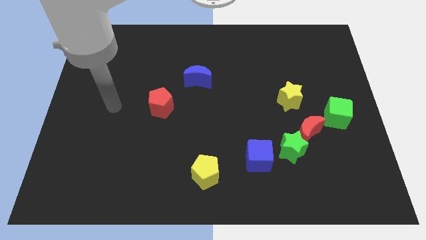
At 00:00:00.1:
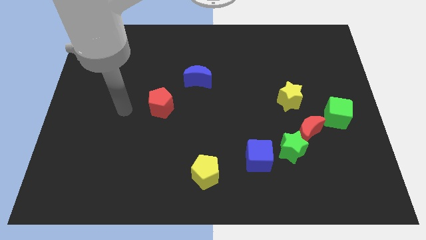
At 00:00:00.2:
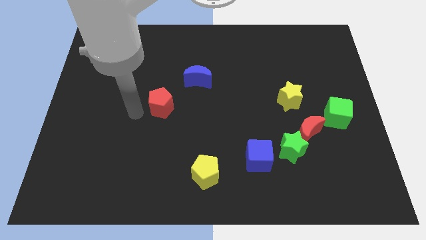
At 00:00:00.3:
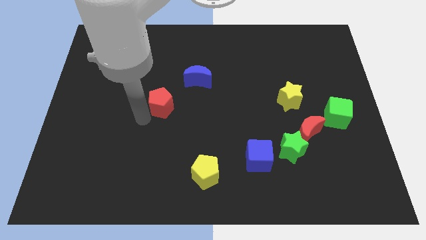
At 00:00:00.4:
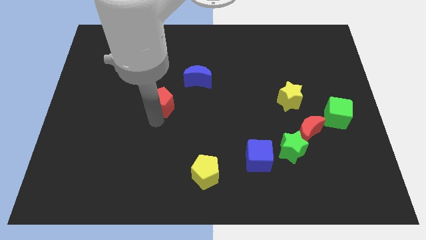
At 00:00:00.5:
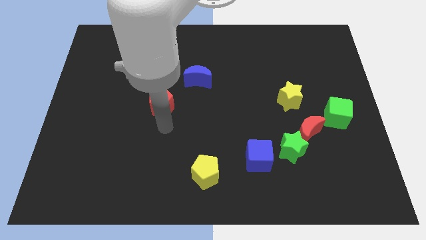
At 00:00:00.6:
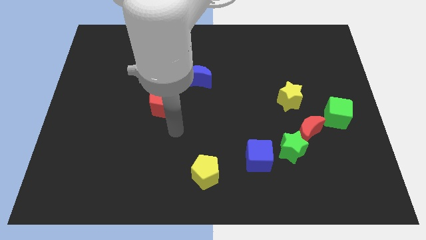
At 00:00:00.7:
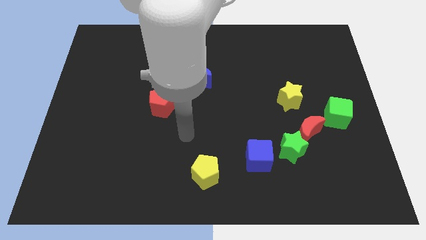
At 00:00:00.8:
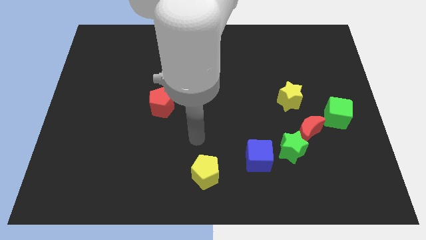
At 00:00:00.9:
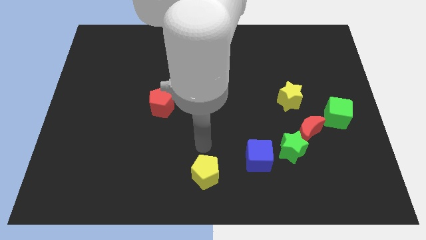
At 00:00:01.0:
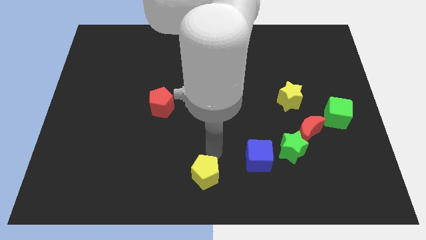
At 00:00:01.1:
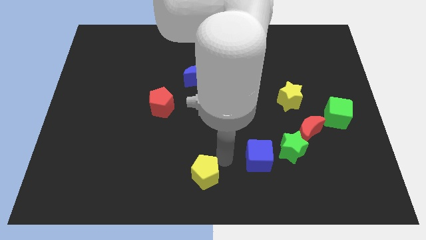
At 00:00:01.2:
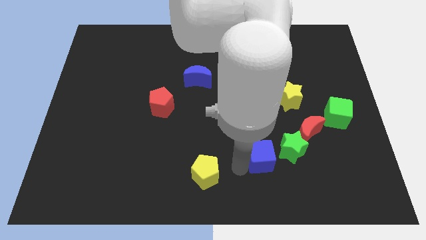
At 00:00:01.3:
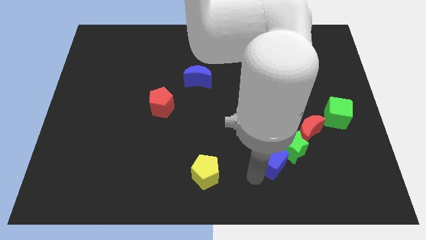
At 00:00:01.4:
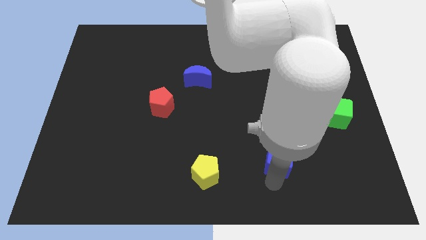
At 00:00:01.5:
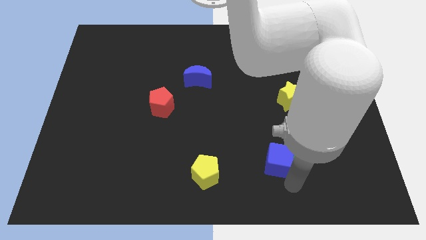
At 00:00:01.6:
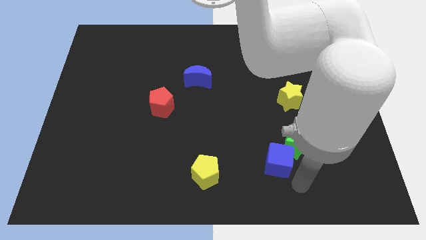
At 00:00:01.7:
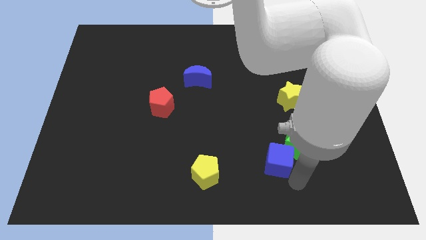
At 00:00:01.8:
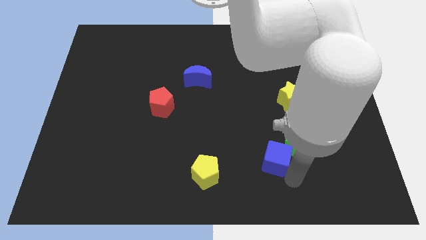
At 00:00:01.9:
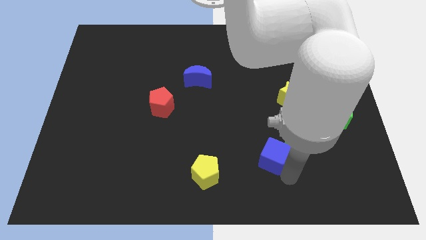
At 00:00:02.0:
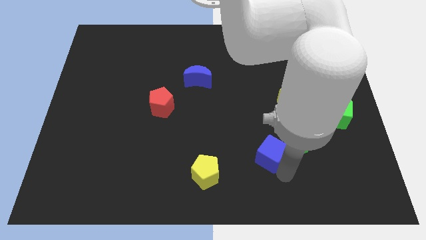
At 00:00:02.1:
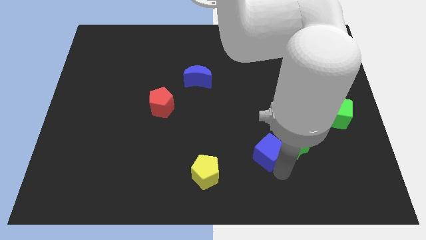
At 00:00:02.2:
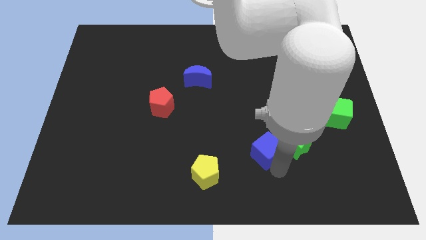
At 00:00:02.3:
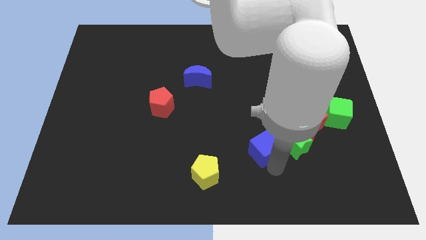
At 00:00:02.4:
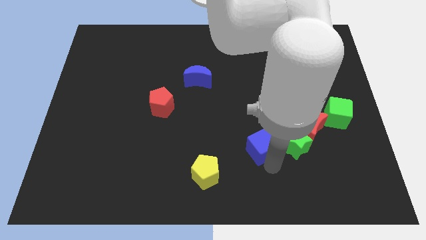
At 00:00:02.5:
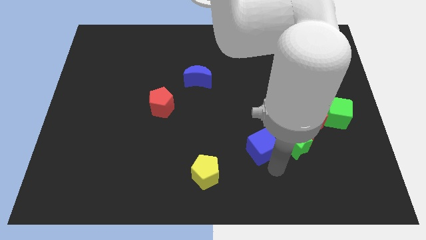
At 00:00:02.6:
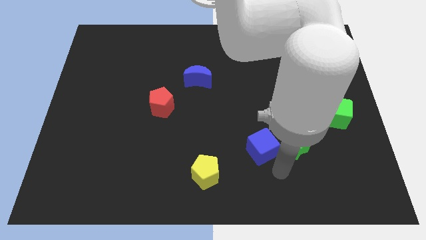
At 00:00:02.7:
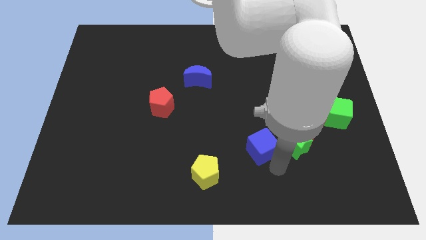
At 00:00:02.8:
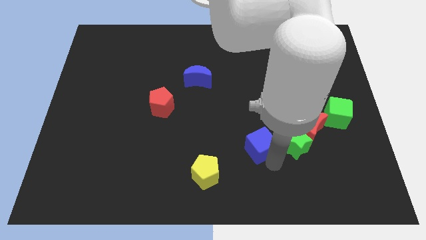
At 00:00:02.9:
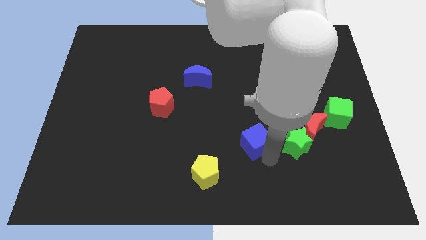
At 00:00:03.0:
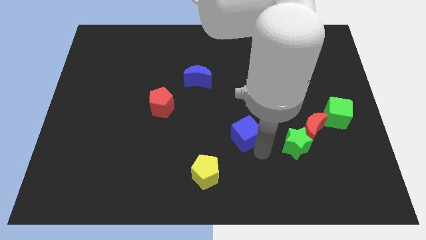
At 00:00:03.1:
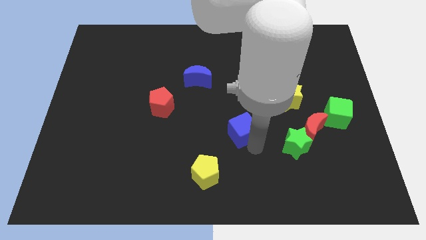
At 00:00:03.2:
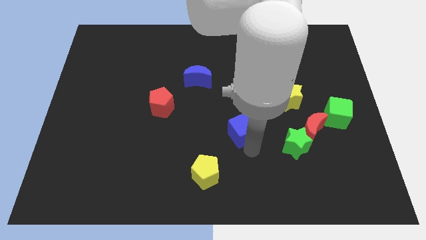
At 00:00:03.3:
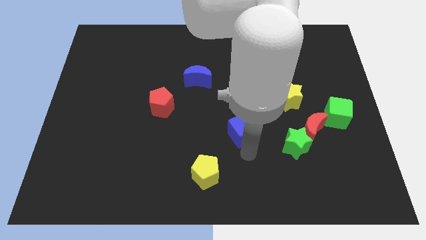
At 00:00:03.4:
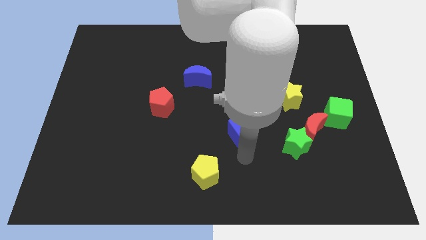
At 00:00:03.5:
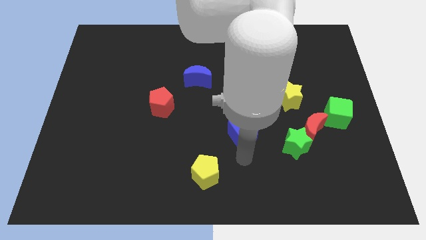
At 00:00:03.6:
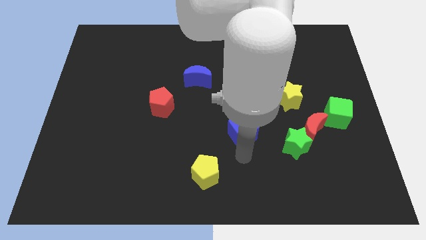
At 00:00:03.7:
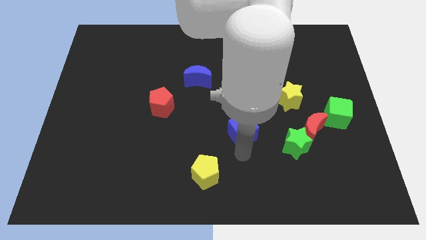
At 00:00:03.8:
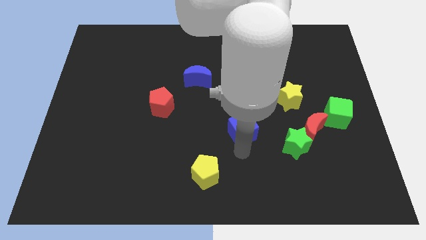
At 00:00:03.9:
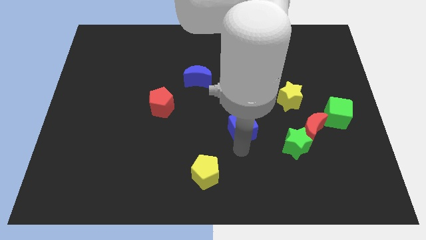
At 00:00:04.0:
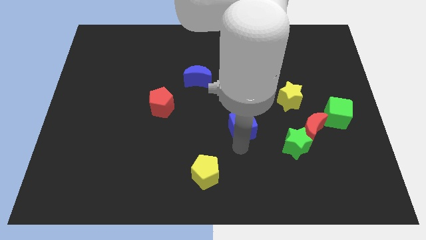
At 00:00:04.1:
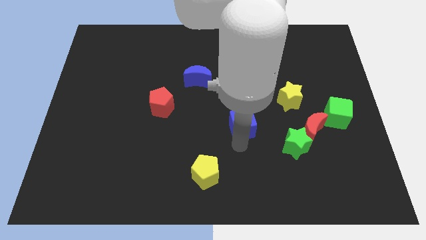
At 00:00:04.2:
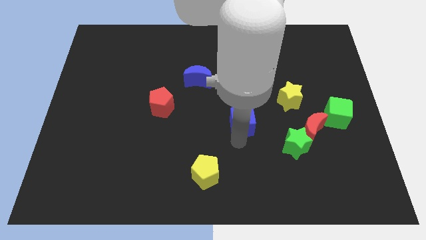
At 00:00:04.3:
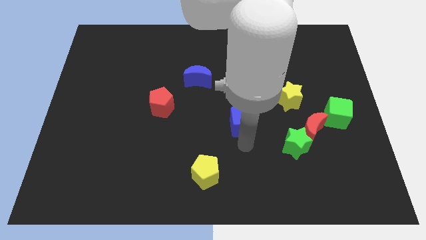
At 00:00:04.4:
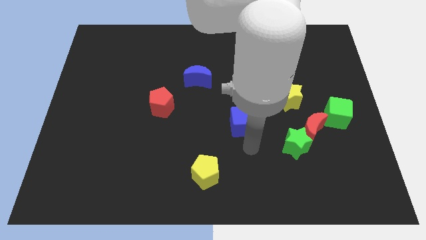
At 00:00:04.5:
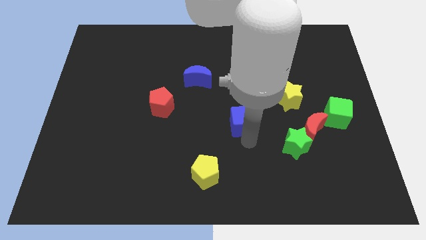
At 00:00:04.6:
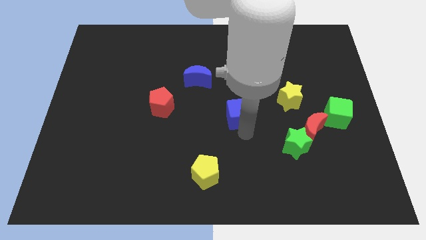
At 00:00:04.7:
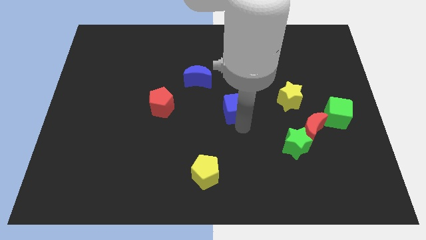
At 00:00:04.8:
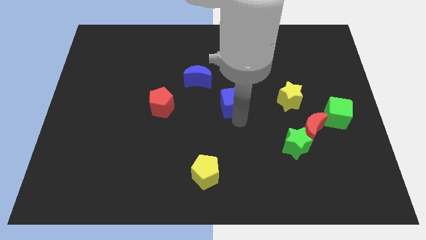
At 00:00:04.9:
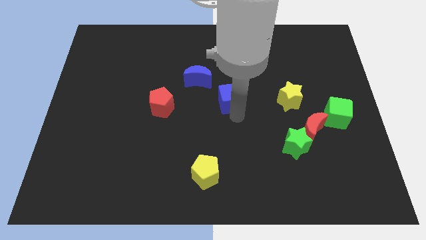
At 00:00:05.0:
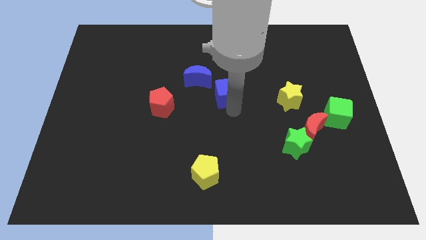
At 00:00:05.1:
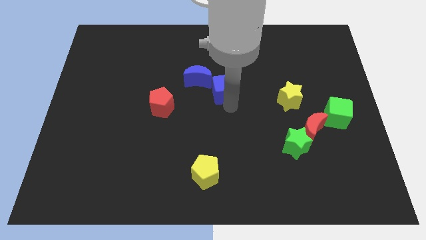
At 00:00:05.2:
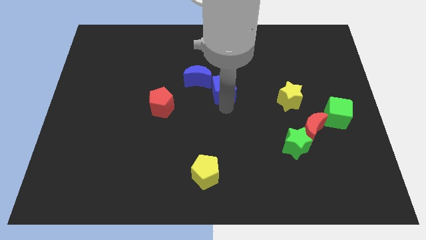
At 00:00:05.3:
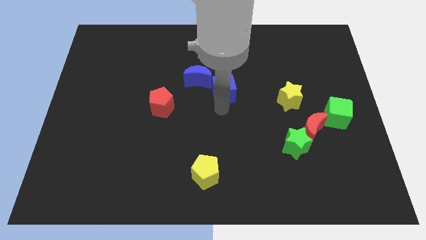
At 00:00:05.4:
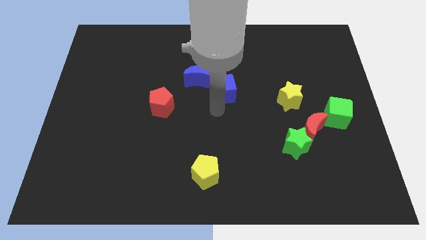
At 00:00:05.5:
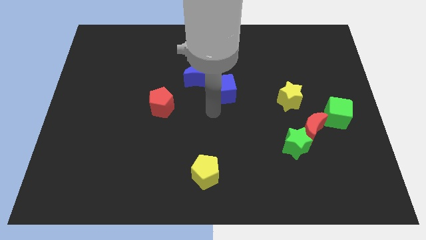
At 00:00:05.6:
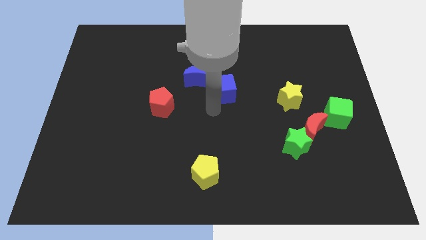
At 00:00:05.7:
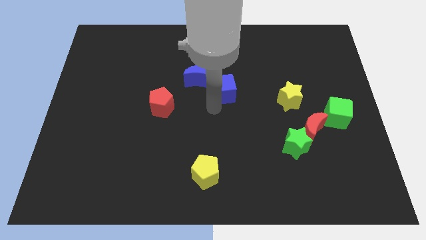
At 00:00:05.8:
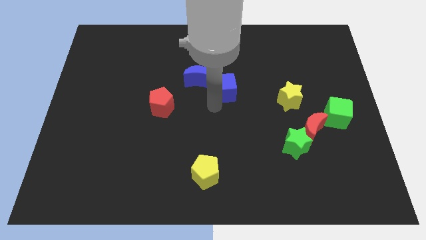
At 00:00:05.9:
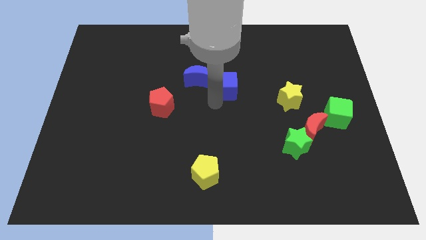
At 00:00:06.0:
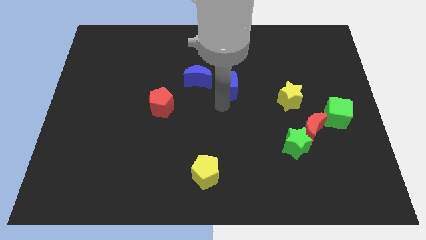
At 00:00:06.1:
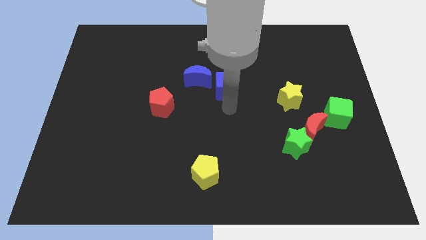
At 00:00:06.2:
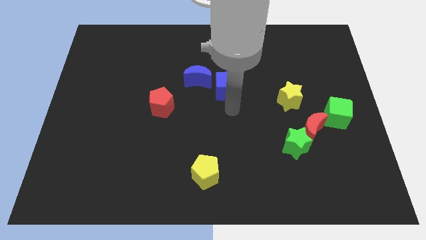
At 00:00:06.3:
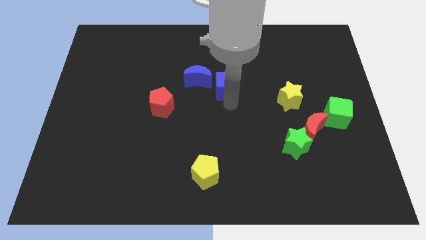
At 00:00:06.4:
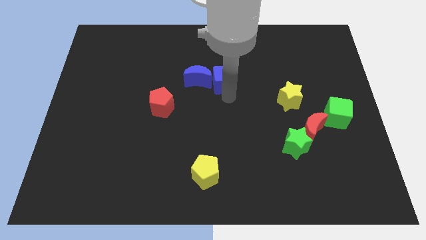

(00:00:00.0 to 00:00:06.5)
push the blue cube to the top right side of the blue moon

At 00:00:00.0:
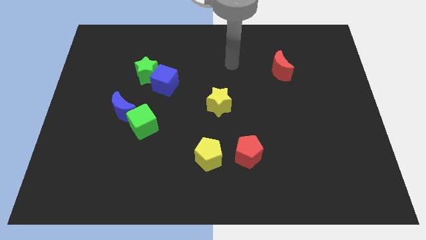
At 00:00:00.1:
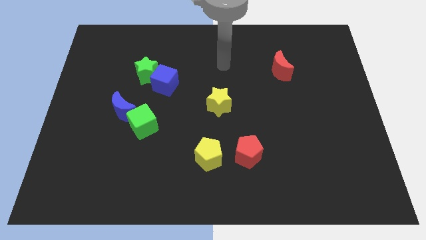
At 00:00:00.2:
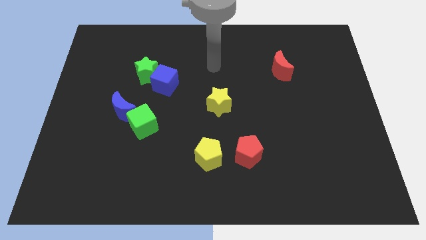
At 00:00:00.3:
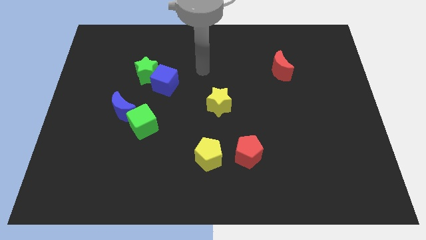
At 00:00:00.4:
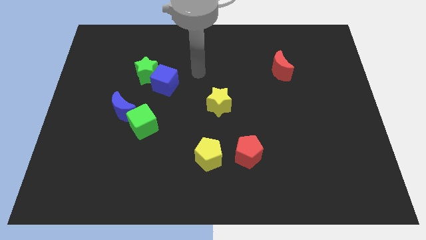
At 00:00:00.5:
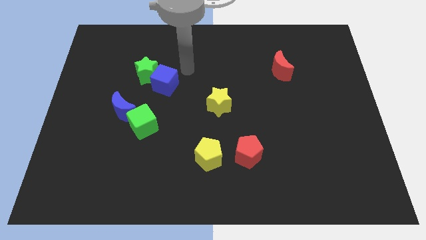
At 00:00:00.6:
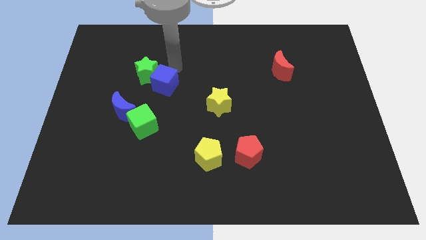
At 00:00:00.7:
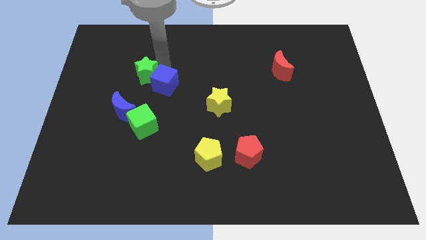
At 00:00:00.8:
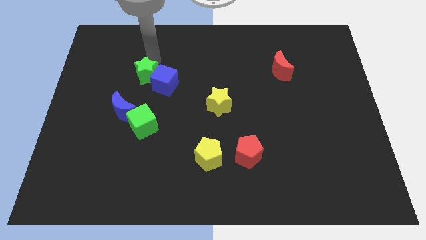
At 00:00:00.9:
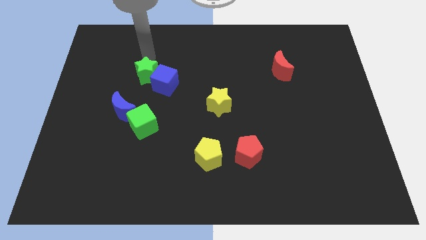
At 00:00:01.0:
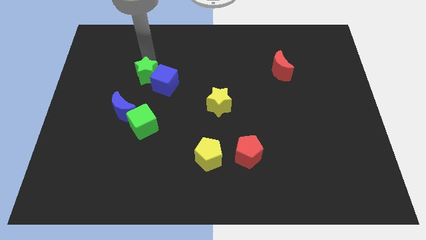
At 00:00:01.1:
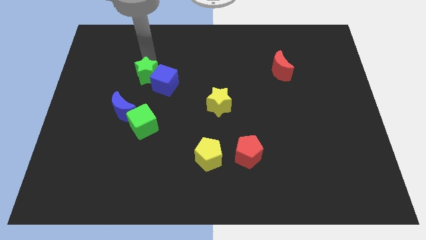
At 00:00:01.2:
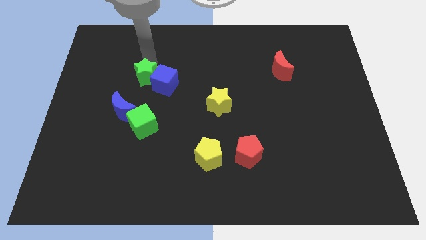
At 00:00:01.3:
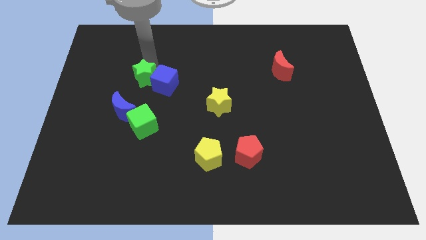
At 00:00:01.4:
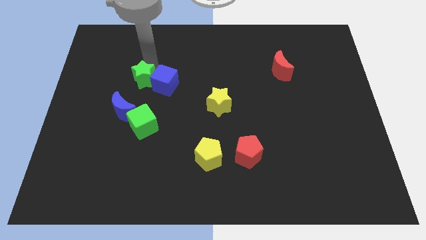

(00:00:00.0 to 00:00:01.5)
move the green star to the top right side of the blue moon

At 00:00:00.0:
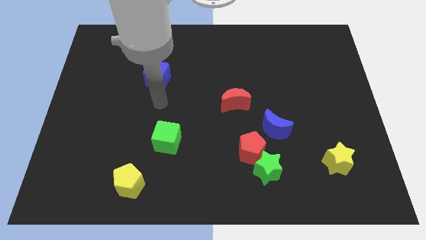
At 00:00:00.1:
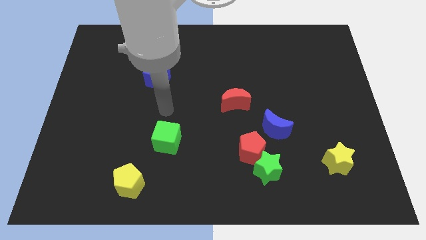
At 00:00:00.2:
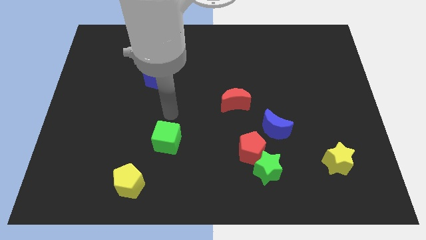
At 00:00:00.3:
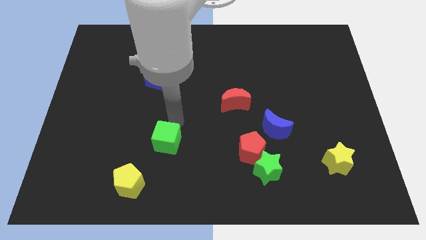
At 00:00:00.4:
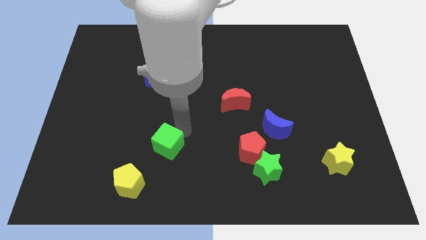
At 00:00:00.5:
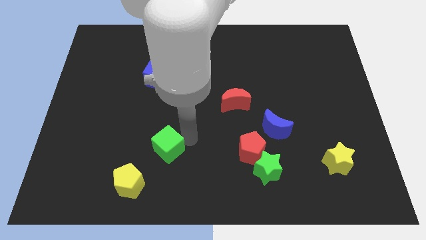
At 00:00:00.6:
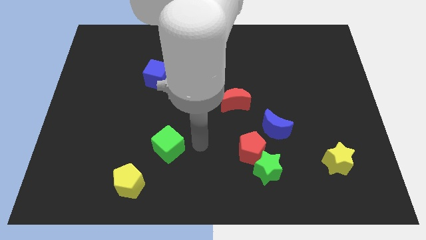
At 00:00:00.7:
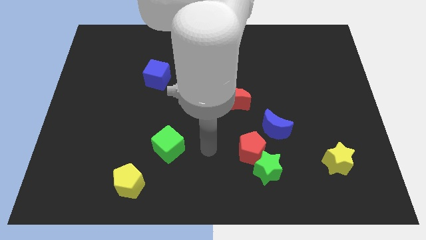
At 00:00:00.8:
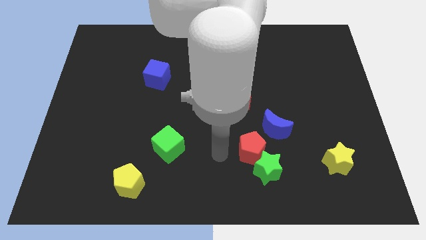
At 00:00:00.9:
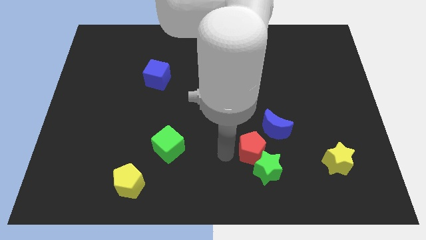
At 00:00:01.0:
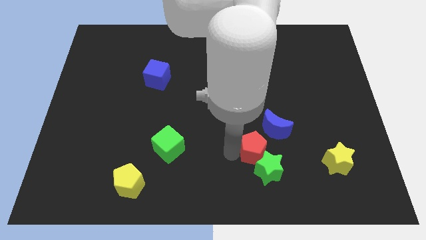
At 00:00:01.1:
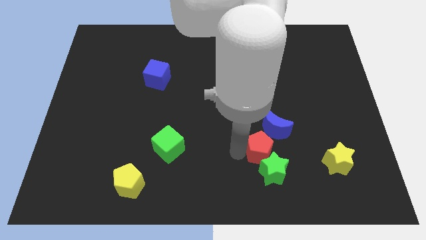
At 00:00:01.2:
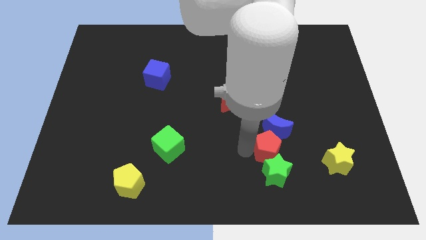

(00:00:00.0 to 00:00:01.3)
slide the red pentagon to the left of the yellow star
